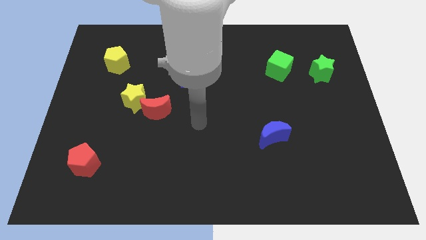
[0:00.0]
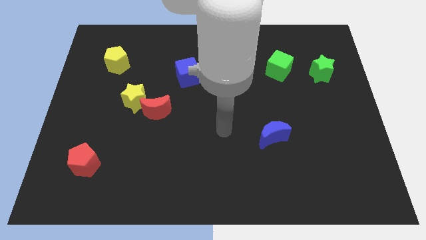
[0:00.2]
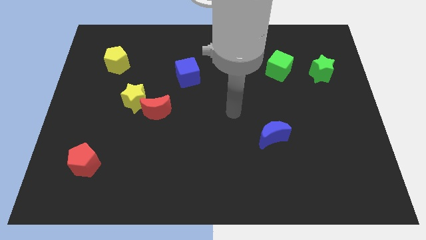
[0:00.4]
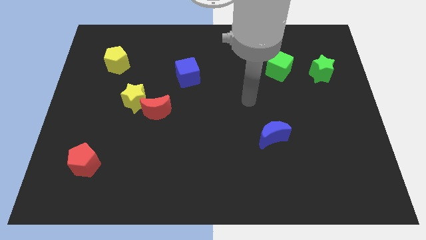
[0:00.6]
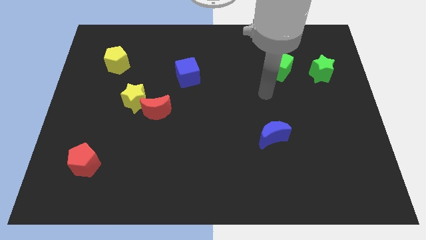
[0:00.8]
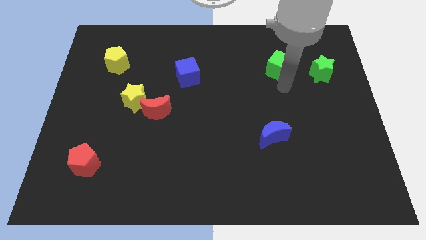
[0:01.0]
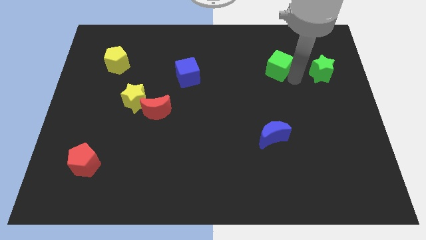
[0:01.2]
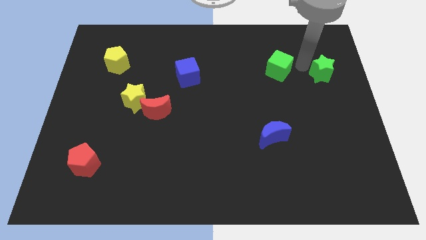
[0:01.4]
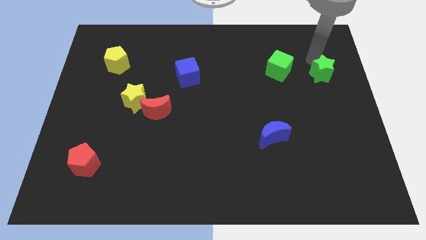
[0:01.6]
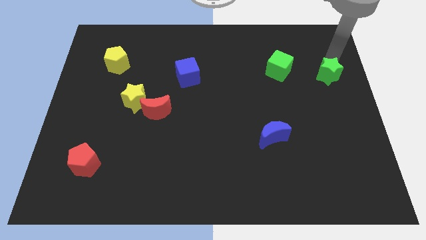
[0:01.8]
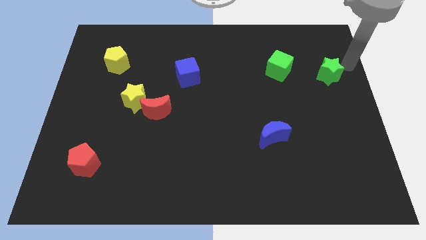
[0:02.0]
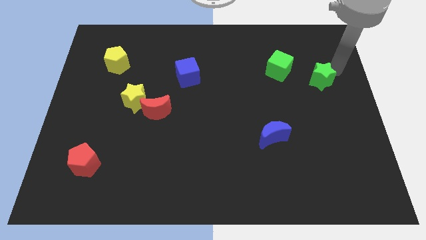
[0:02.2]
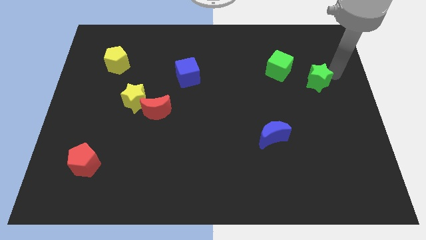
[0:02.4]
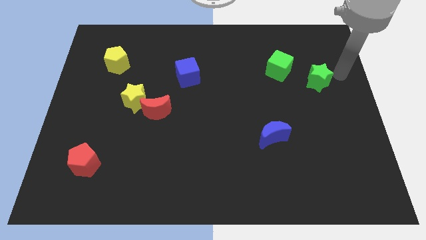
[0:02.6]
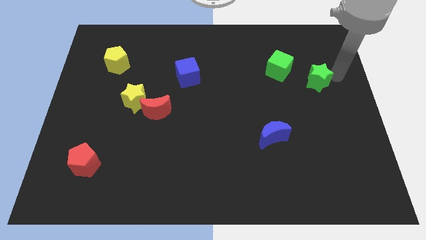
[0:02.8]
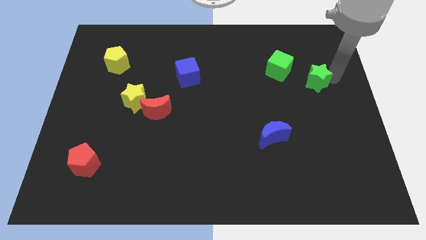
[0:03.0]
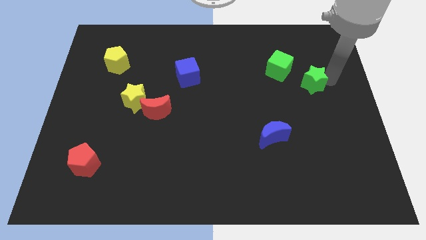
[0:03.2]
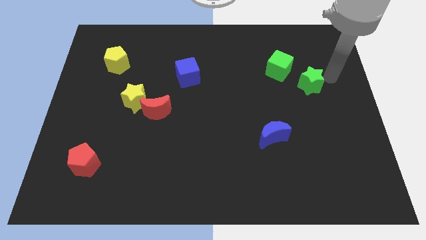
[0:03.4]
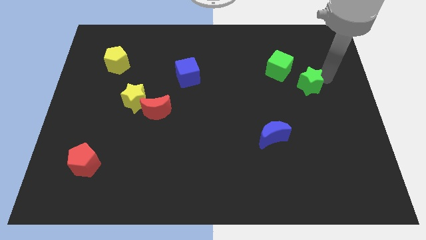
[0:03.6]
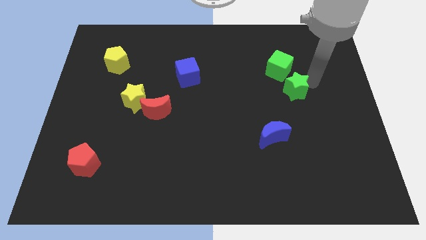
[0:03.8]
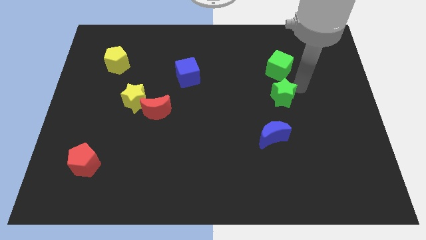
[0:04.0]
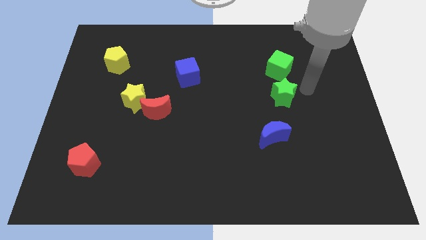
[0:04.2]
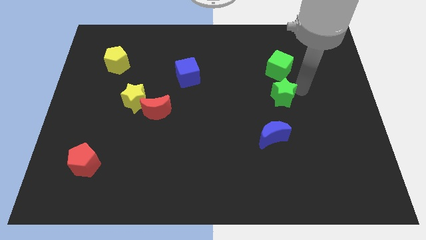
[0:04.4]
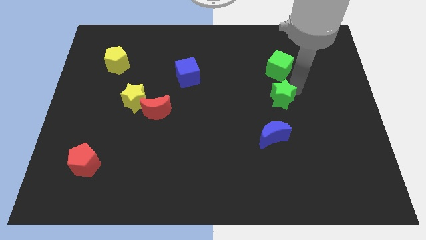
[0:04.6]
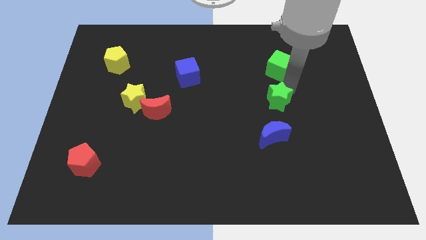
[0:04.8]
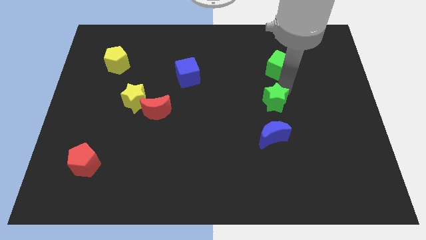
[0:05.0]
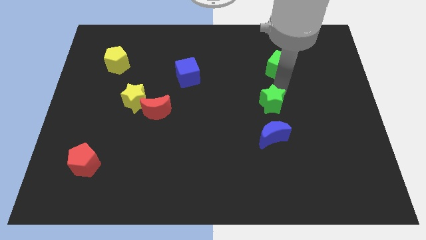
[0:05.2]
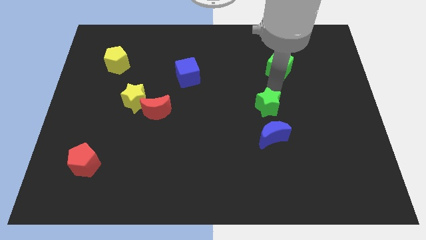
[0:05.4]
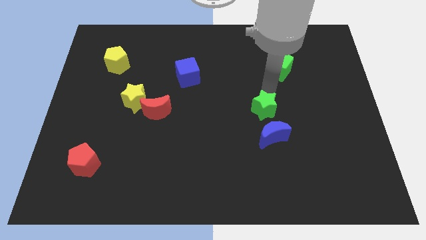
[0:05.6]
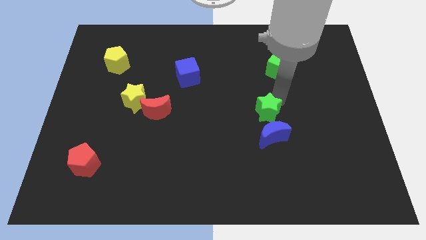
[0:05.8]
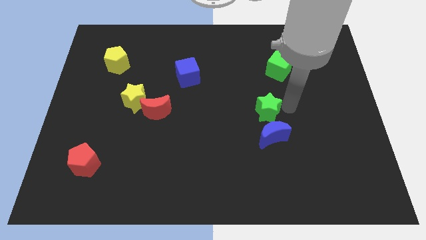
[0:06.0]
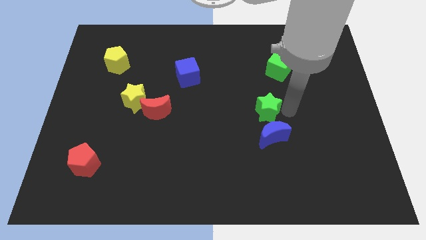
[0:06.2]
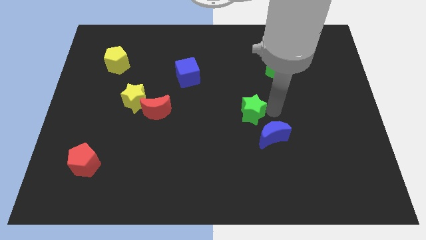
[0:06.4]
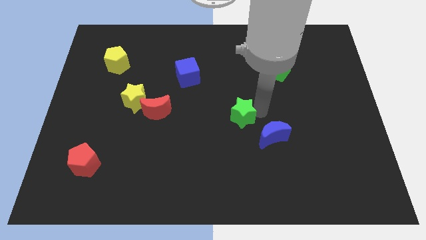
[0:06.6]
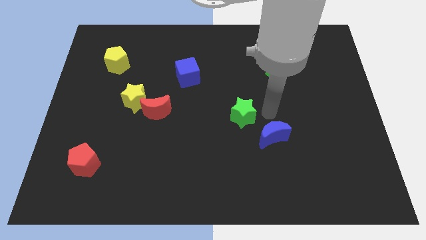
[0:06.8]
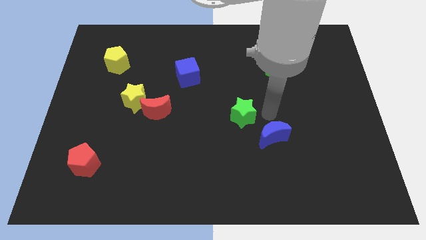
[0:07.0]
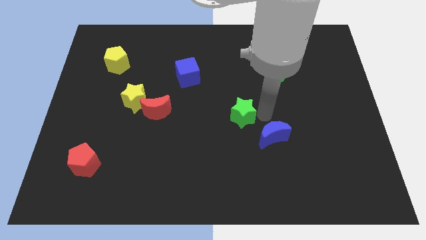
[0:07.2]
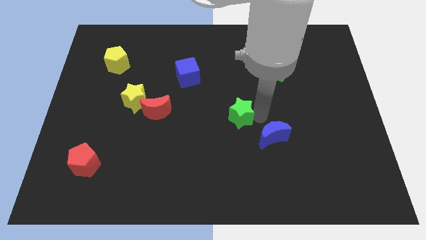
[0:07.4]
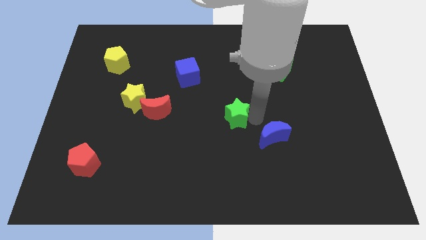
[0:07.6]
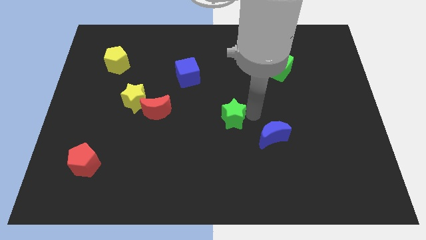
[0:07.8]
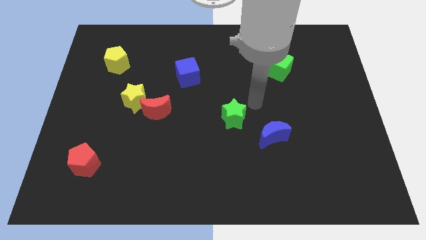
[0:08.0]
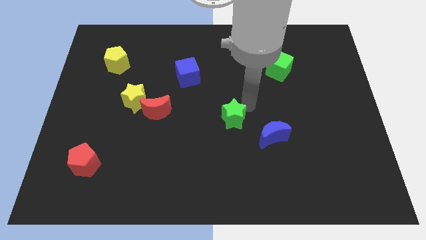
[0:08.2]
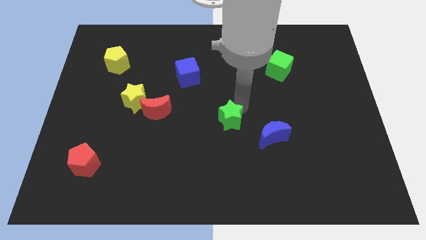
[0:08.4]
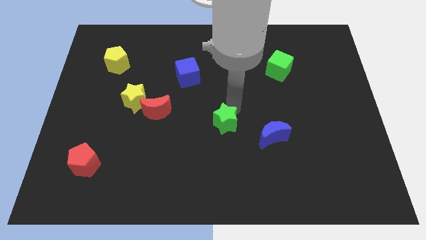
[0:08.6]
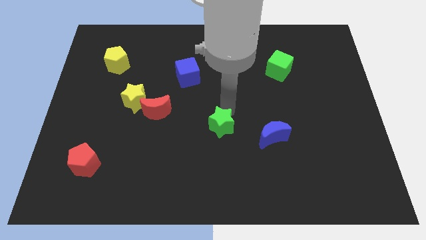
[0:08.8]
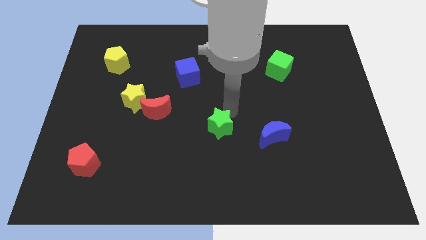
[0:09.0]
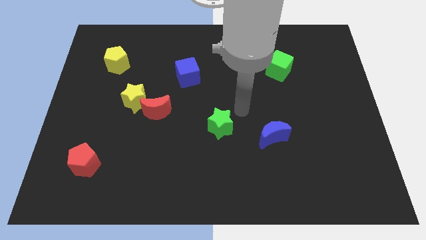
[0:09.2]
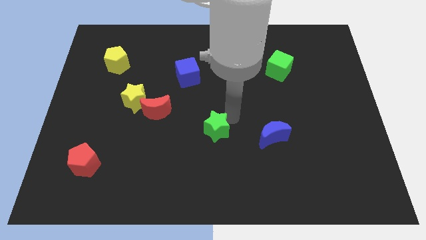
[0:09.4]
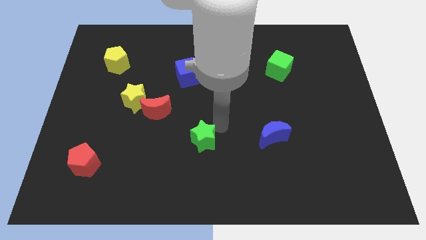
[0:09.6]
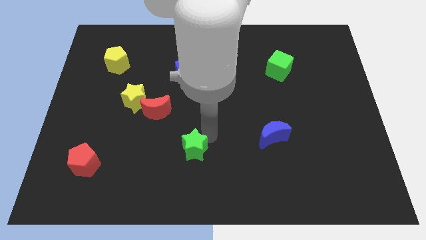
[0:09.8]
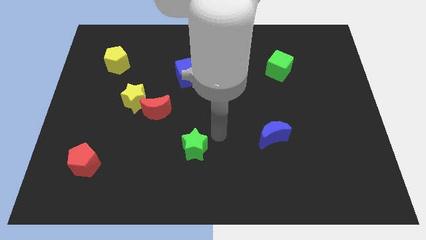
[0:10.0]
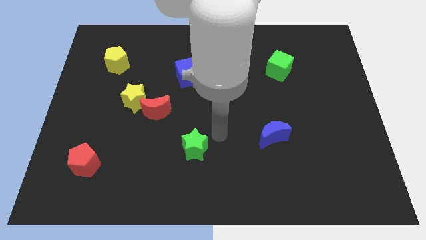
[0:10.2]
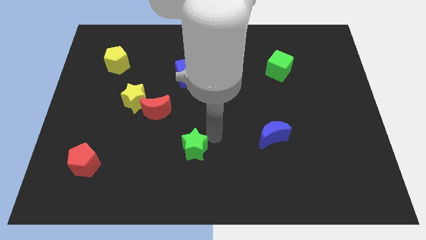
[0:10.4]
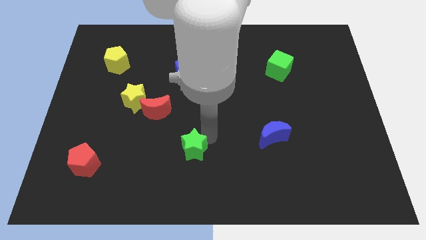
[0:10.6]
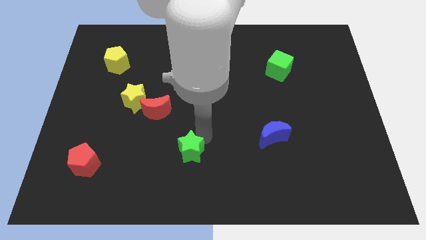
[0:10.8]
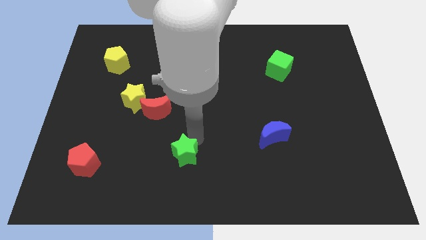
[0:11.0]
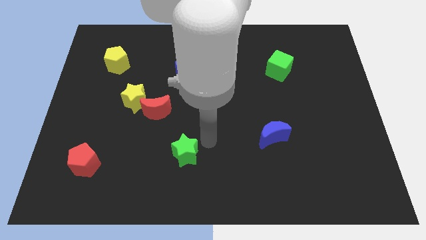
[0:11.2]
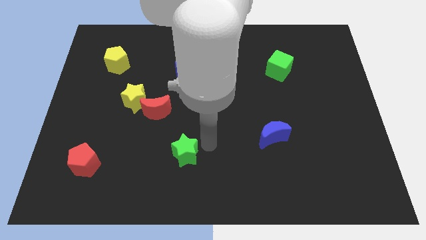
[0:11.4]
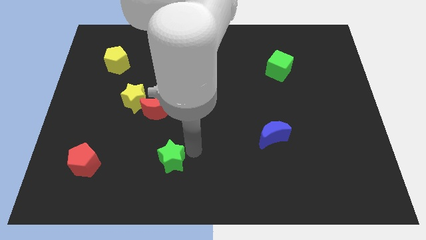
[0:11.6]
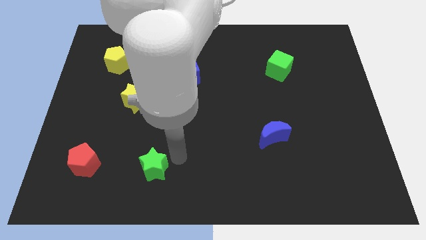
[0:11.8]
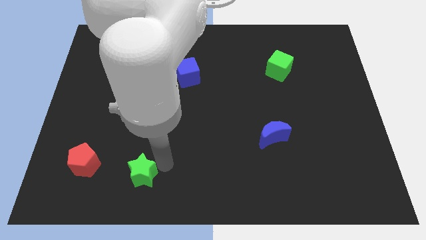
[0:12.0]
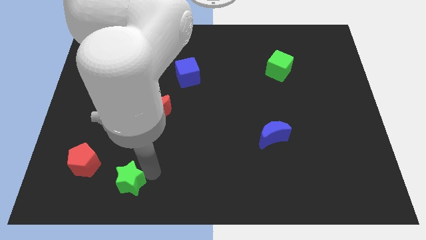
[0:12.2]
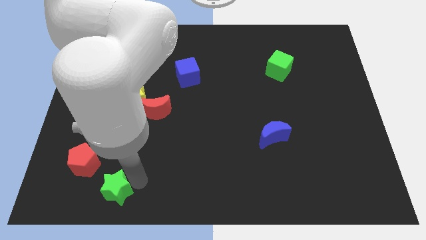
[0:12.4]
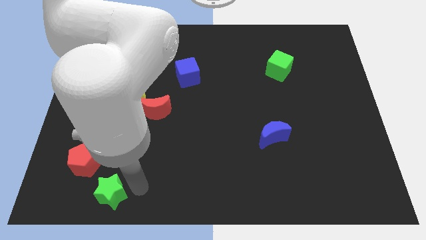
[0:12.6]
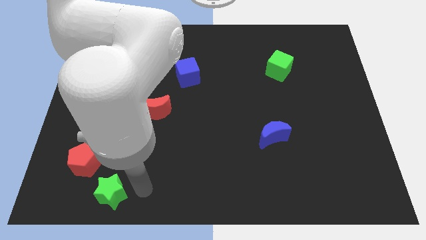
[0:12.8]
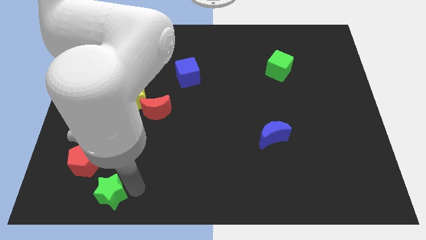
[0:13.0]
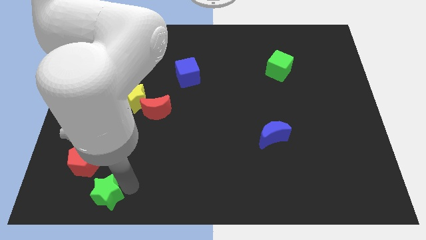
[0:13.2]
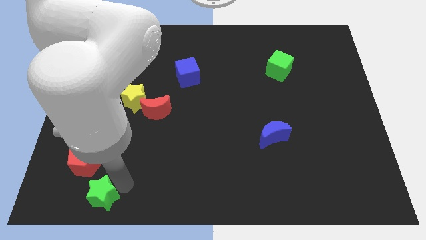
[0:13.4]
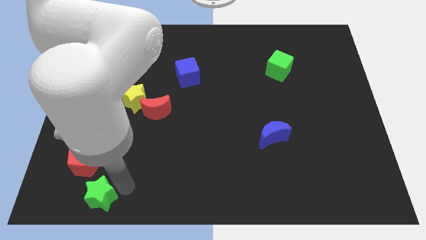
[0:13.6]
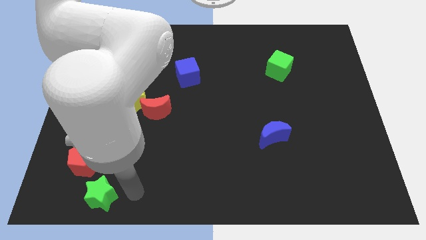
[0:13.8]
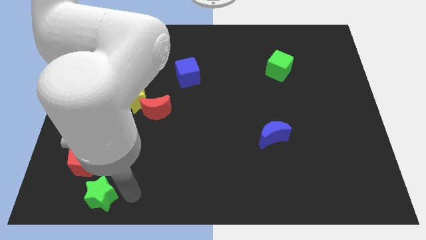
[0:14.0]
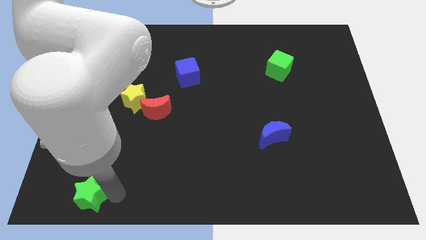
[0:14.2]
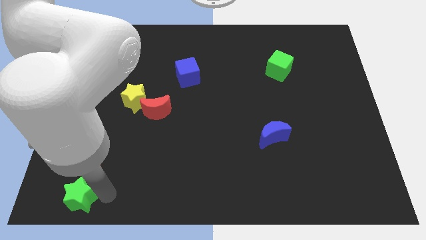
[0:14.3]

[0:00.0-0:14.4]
push the green star to the lower left corner

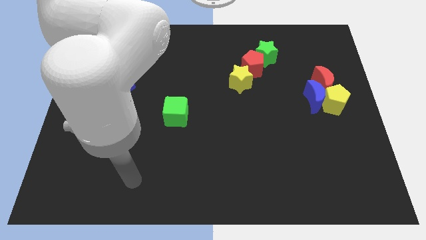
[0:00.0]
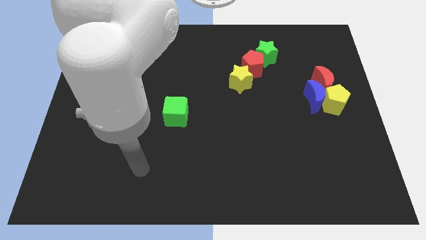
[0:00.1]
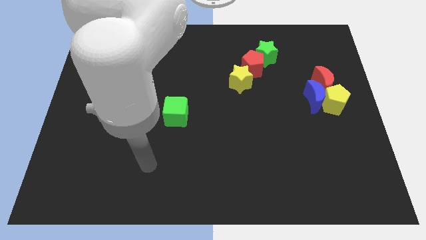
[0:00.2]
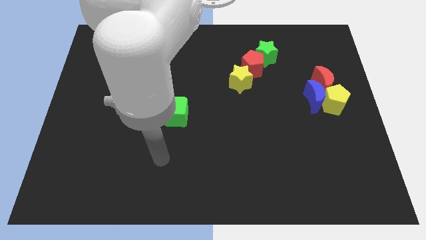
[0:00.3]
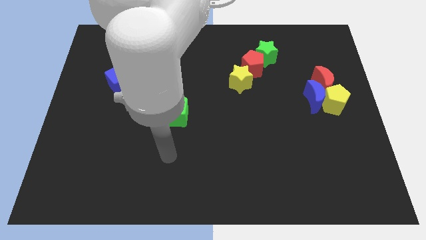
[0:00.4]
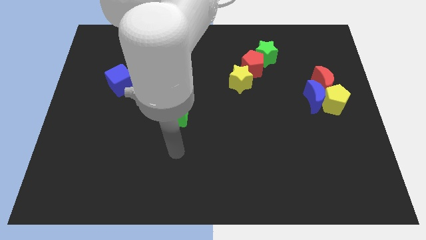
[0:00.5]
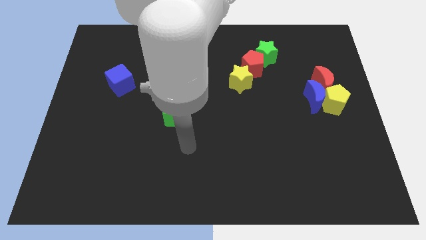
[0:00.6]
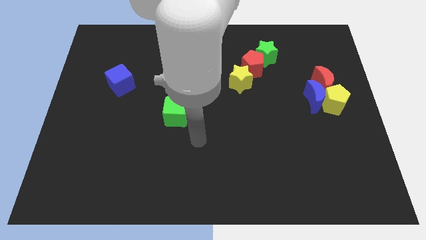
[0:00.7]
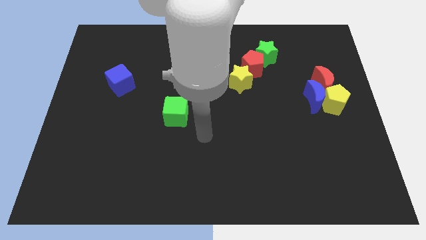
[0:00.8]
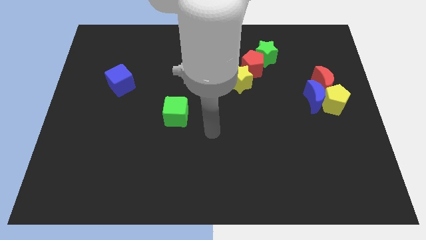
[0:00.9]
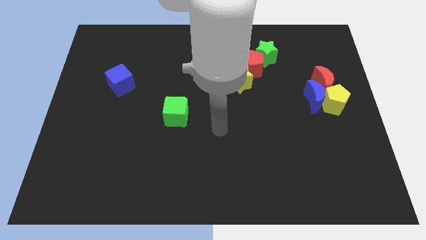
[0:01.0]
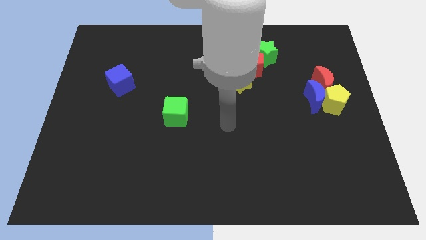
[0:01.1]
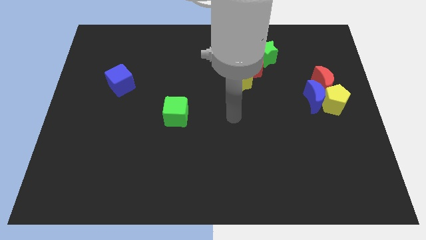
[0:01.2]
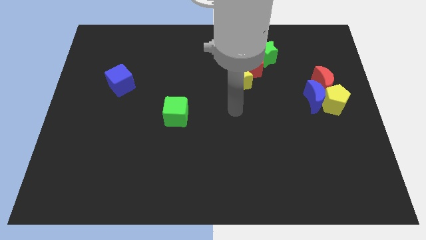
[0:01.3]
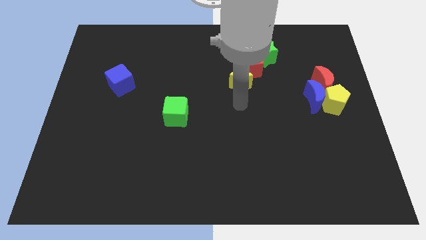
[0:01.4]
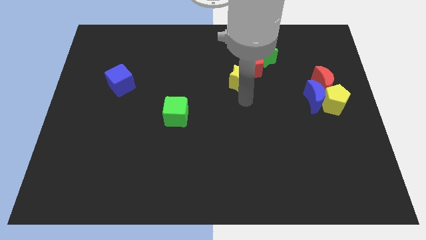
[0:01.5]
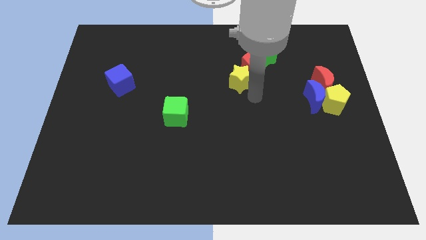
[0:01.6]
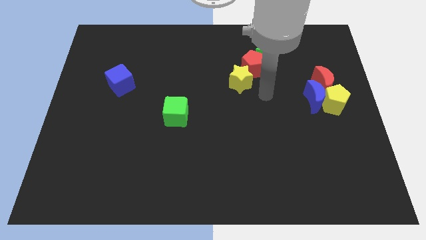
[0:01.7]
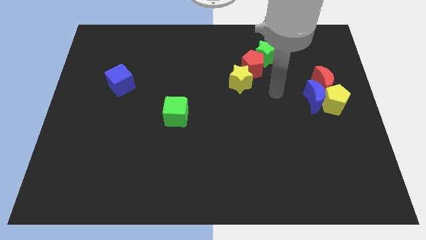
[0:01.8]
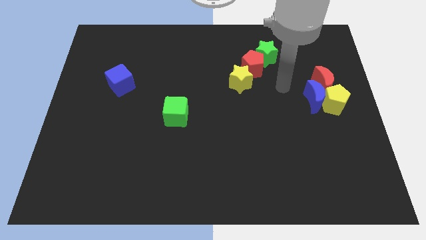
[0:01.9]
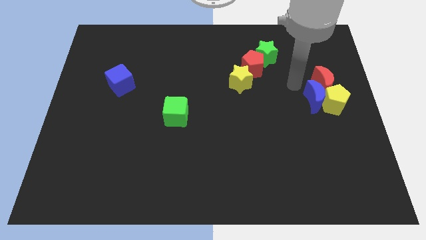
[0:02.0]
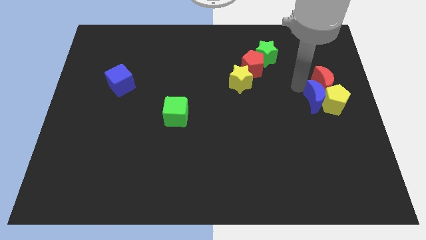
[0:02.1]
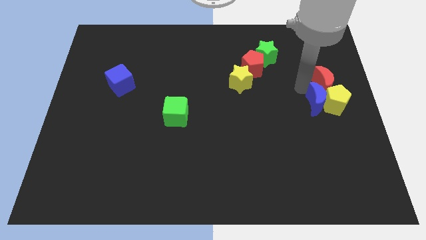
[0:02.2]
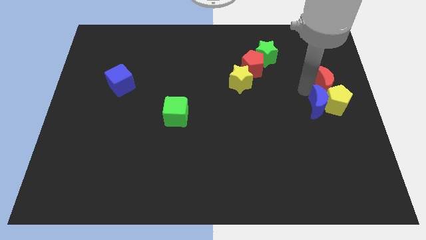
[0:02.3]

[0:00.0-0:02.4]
slide the blue moon to the center right
